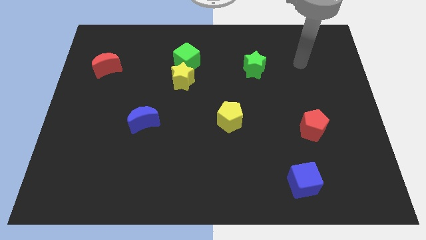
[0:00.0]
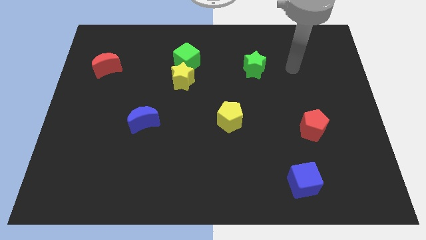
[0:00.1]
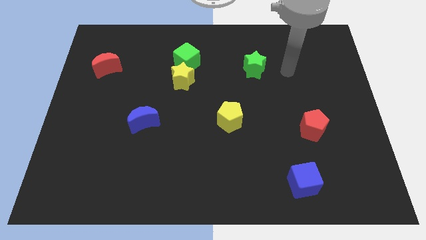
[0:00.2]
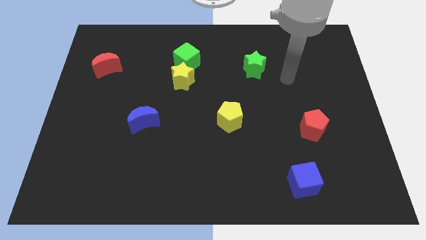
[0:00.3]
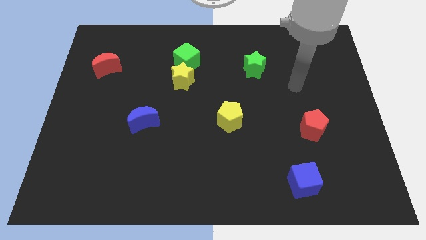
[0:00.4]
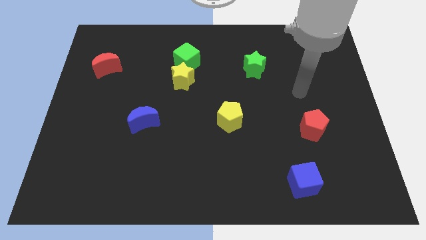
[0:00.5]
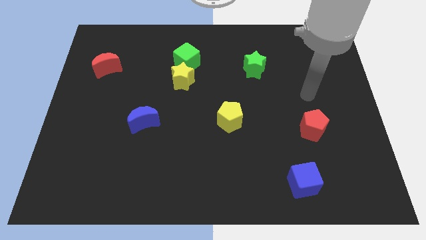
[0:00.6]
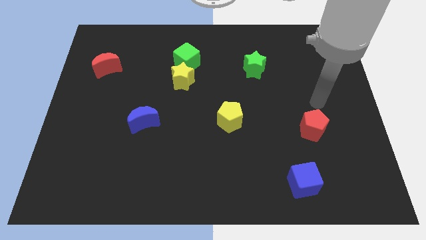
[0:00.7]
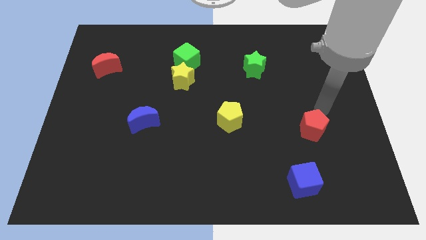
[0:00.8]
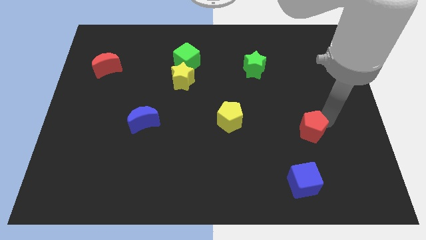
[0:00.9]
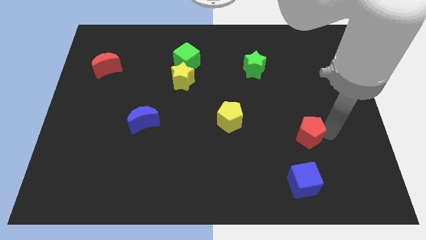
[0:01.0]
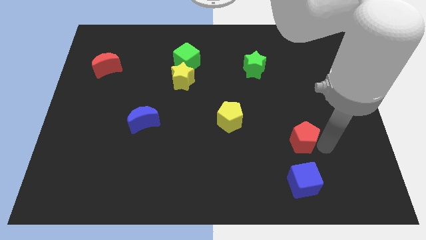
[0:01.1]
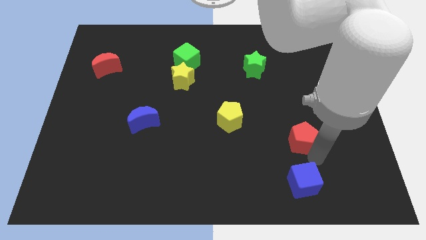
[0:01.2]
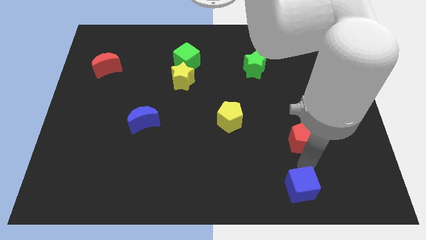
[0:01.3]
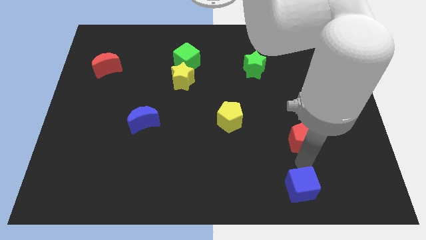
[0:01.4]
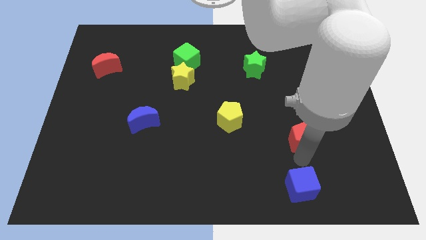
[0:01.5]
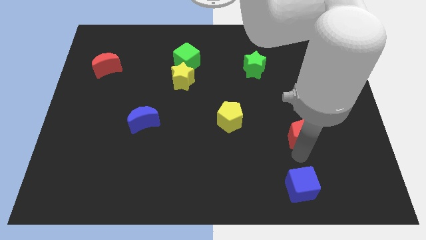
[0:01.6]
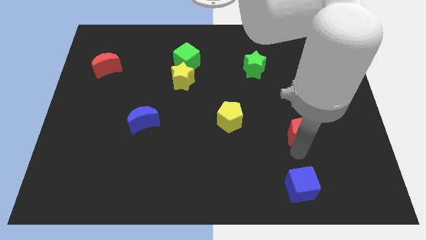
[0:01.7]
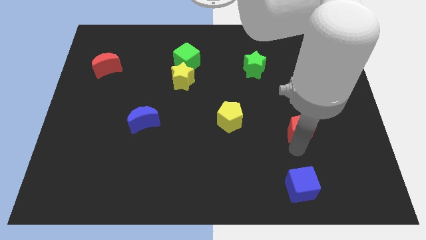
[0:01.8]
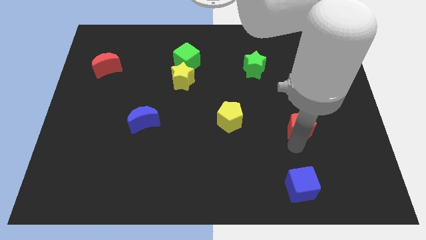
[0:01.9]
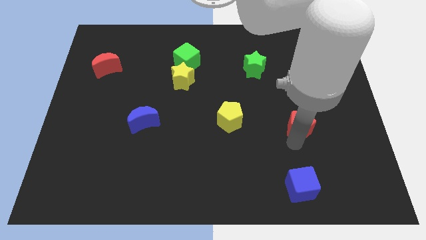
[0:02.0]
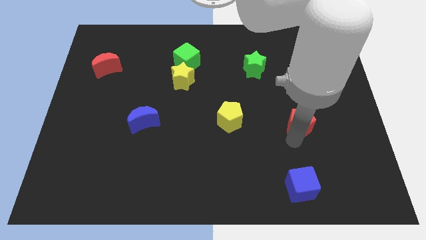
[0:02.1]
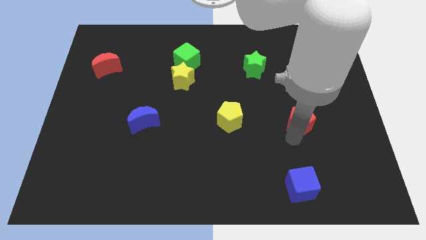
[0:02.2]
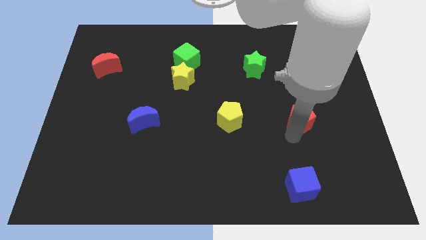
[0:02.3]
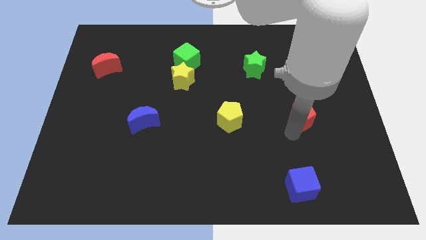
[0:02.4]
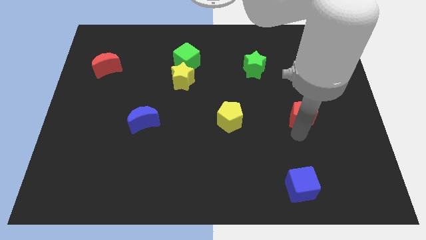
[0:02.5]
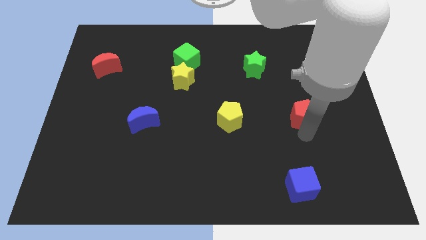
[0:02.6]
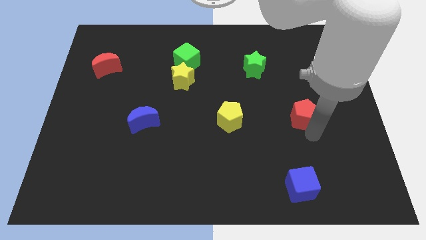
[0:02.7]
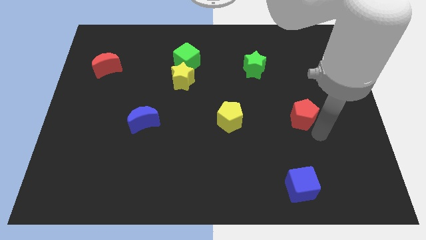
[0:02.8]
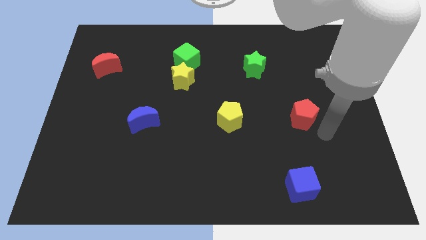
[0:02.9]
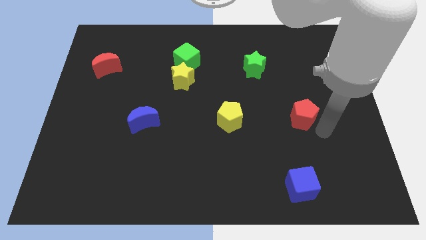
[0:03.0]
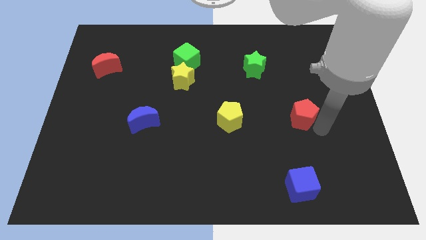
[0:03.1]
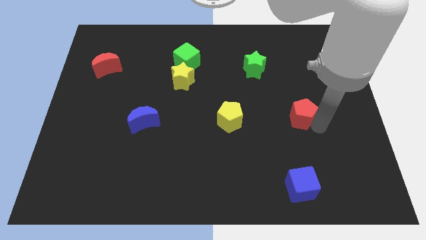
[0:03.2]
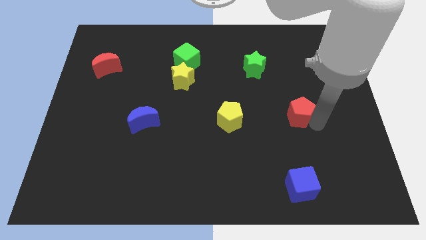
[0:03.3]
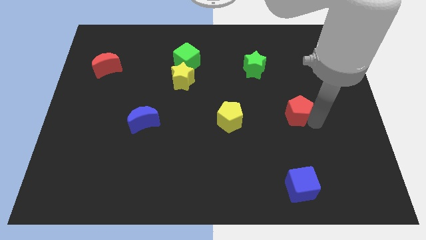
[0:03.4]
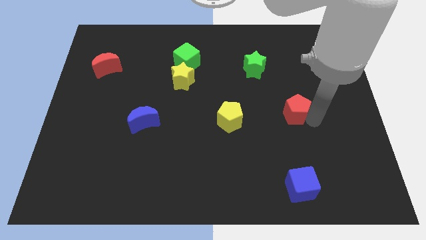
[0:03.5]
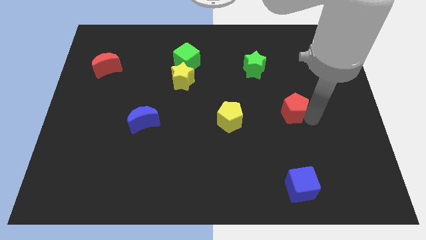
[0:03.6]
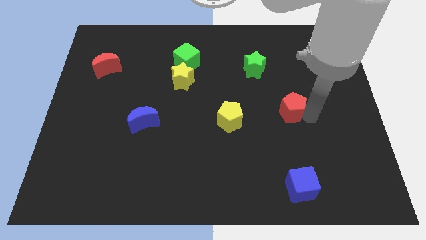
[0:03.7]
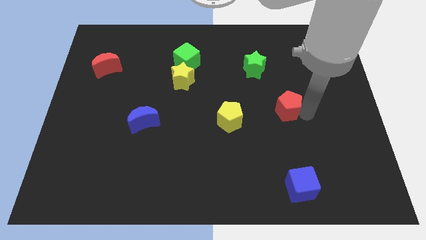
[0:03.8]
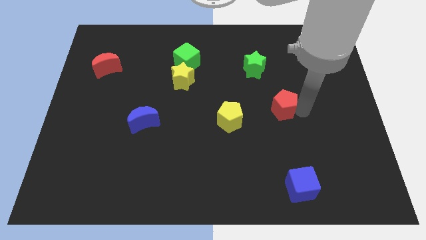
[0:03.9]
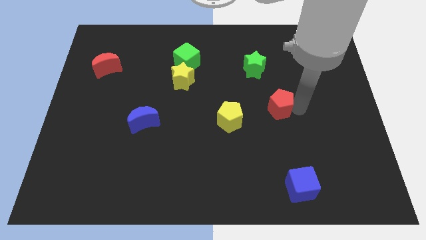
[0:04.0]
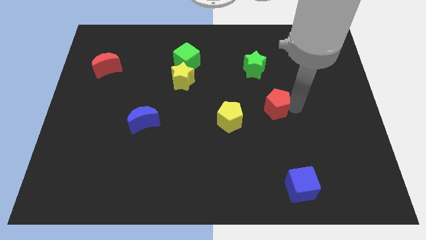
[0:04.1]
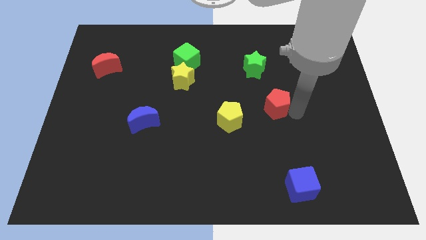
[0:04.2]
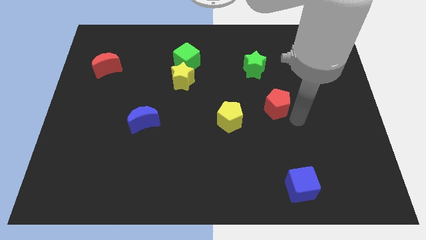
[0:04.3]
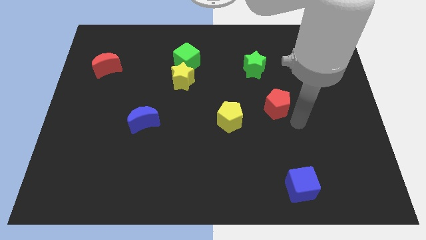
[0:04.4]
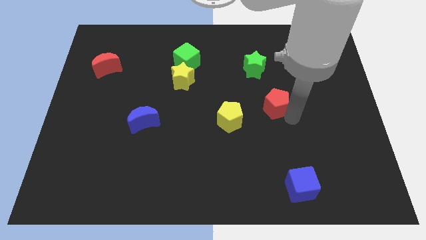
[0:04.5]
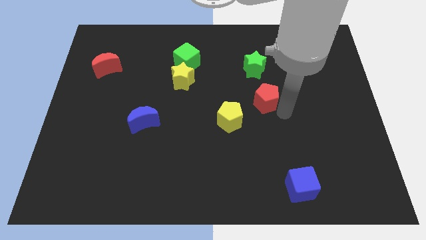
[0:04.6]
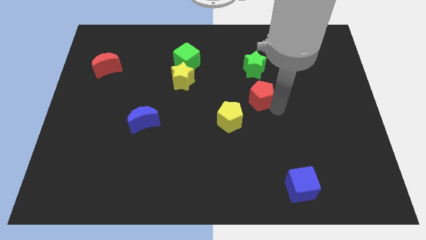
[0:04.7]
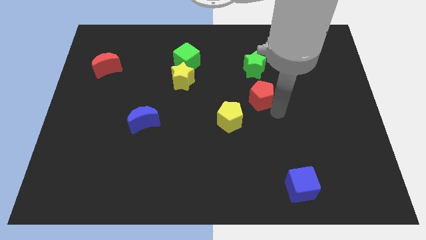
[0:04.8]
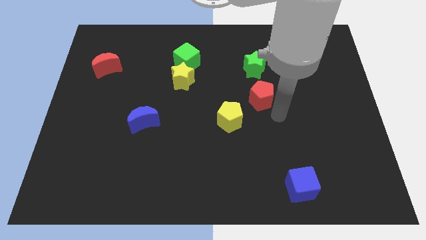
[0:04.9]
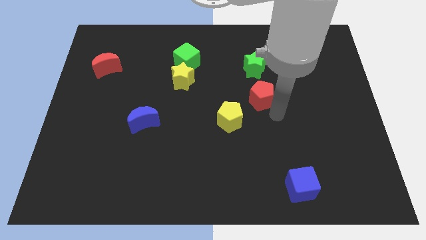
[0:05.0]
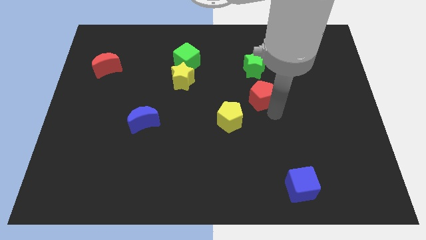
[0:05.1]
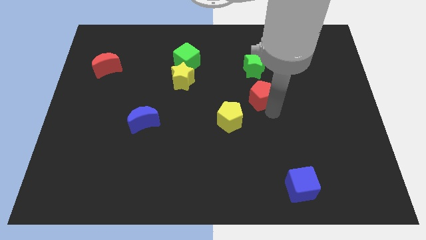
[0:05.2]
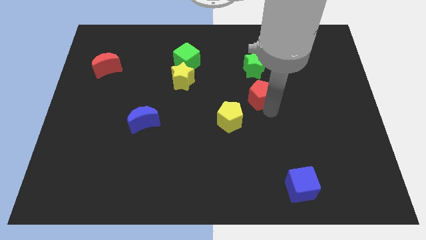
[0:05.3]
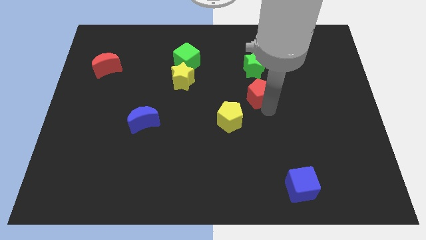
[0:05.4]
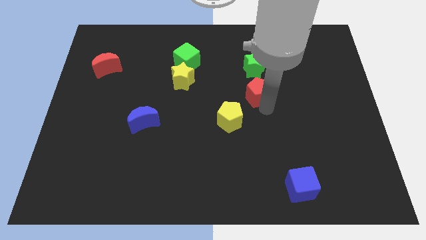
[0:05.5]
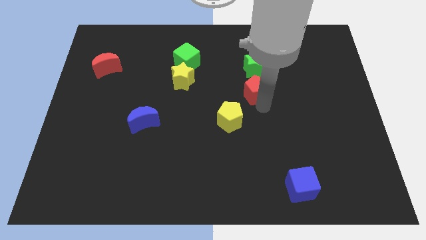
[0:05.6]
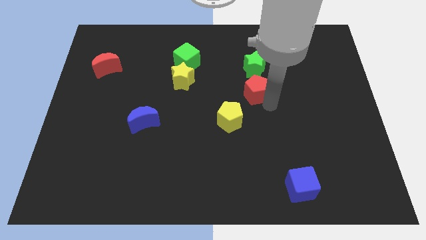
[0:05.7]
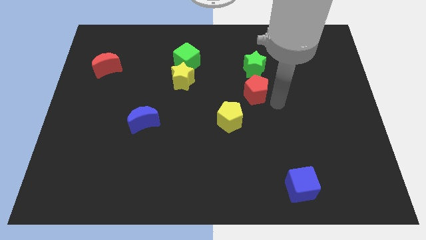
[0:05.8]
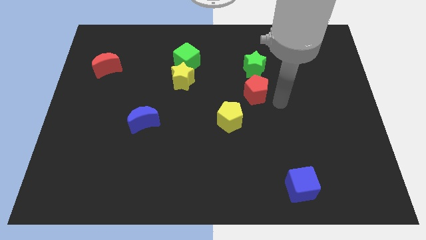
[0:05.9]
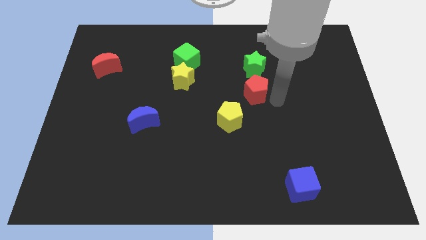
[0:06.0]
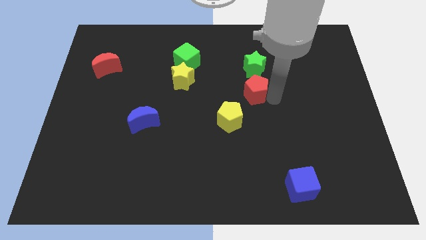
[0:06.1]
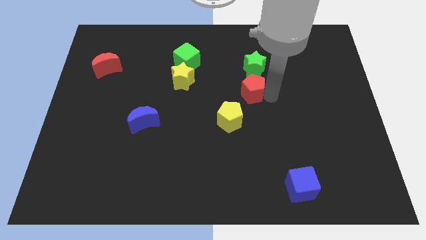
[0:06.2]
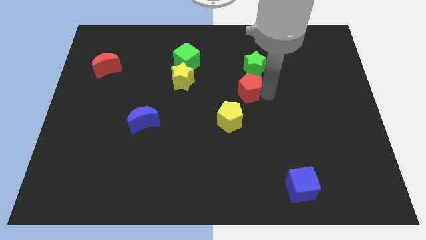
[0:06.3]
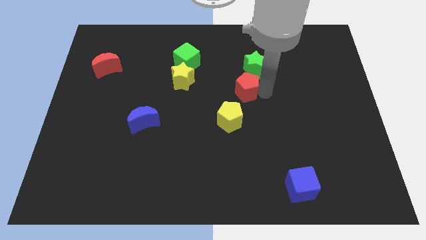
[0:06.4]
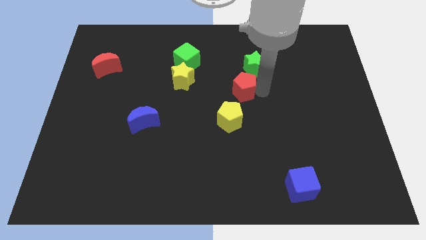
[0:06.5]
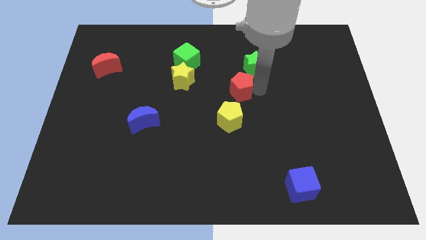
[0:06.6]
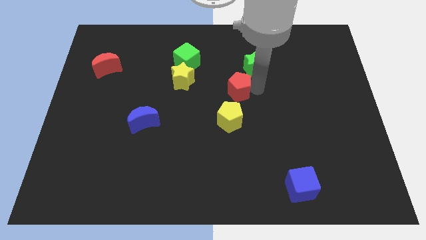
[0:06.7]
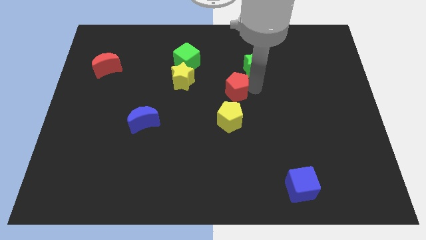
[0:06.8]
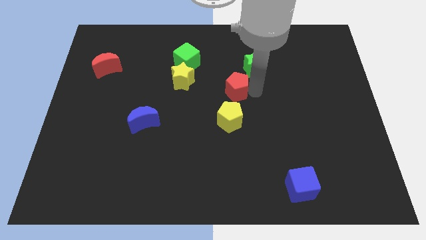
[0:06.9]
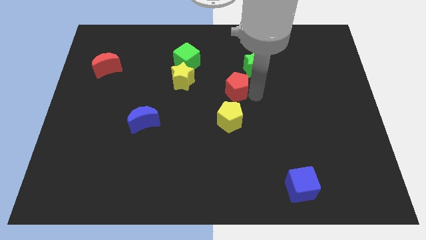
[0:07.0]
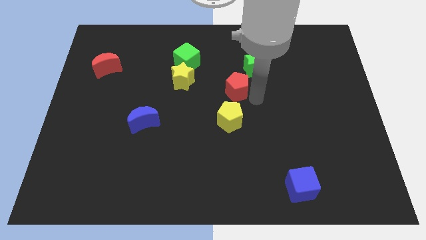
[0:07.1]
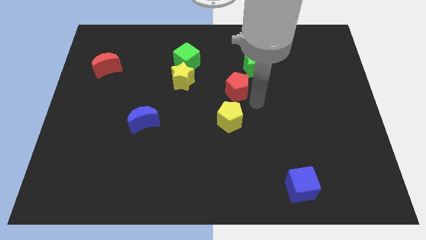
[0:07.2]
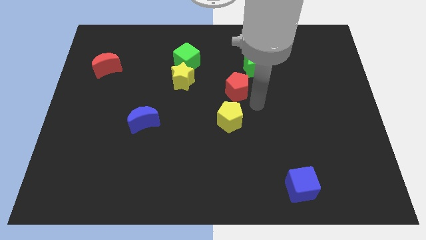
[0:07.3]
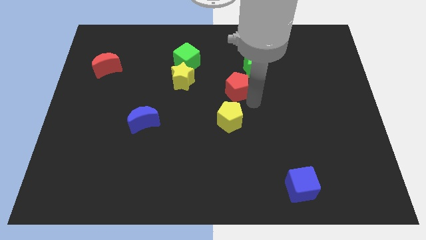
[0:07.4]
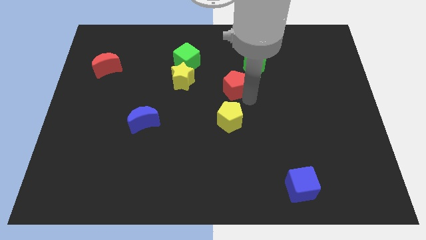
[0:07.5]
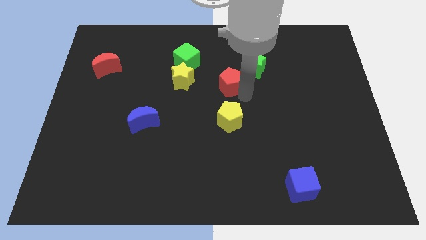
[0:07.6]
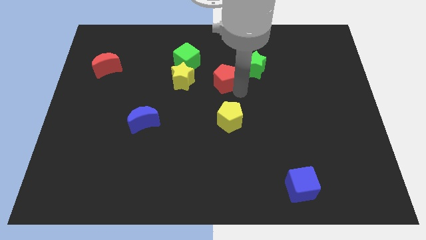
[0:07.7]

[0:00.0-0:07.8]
slide the red pentagon diagonally down and to the right of the green cube
